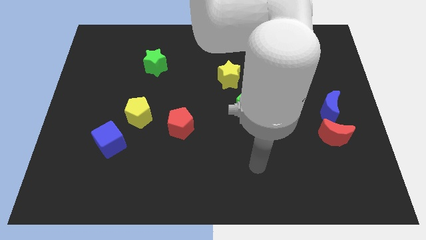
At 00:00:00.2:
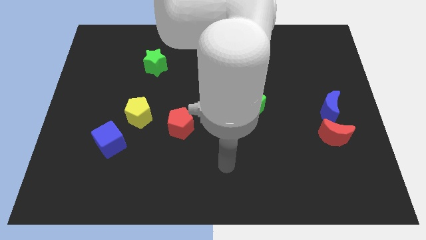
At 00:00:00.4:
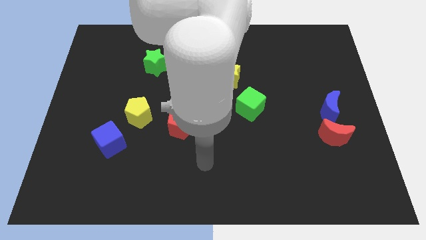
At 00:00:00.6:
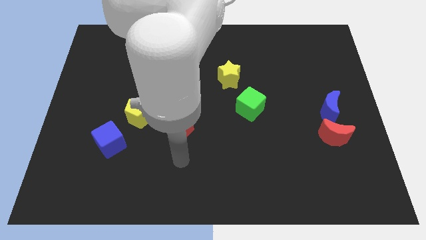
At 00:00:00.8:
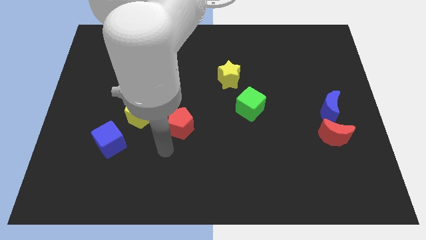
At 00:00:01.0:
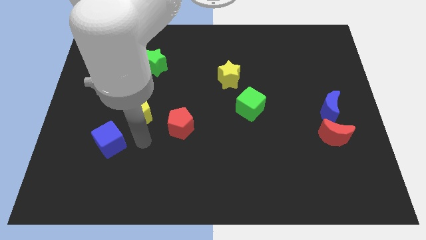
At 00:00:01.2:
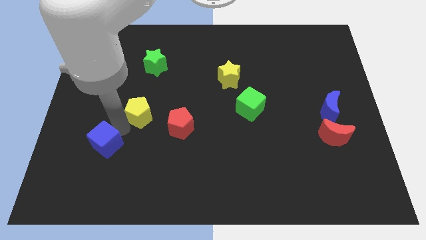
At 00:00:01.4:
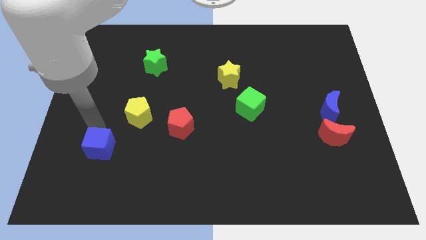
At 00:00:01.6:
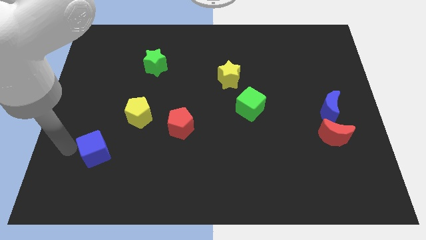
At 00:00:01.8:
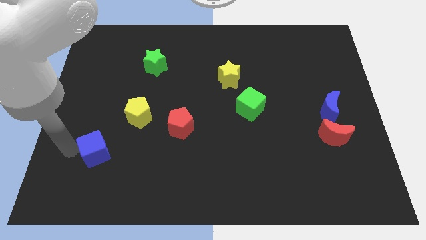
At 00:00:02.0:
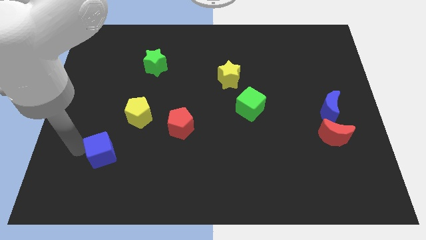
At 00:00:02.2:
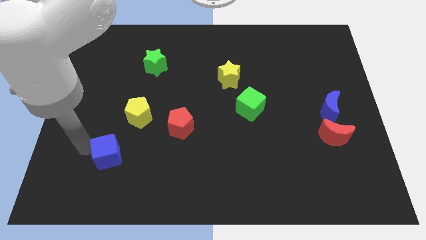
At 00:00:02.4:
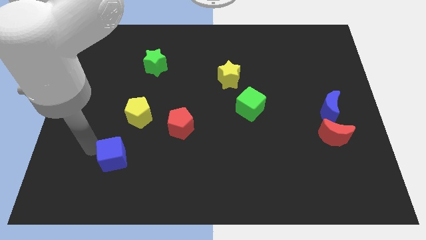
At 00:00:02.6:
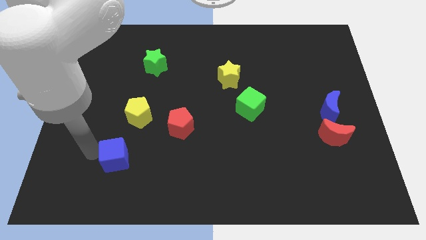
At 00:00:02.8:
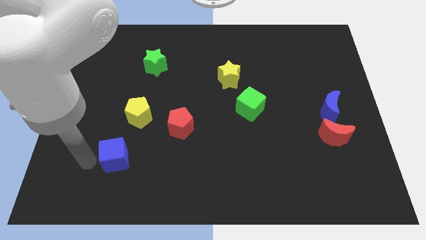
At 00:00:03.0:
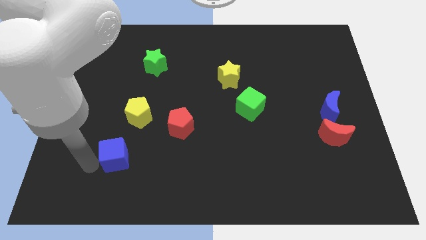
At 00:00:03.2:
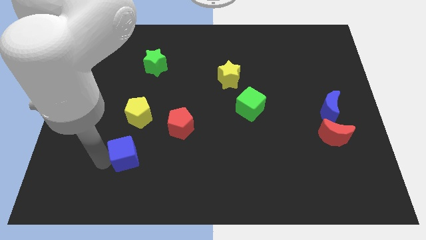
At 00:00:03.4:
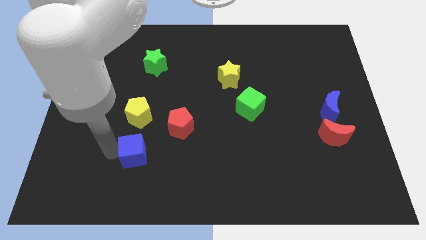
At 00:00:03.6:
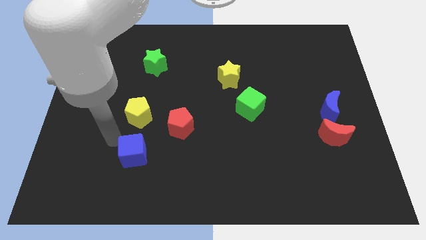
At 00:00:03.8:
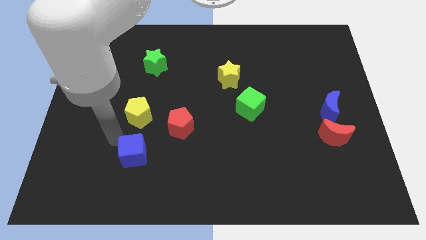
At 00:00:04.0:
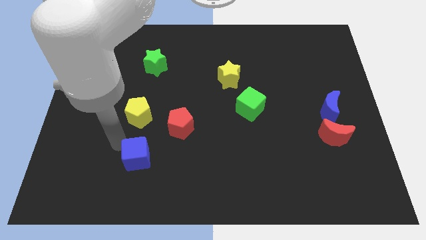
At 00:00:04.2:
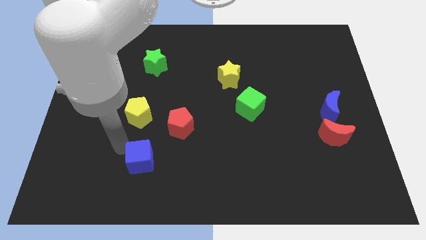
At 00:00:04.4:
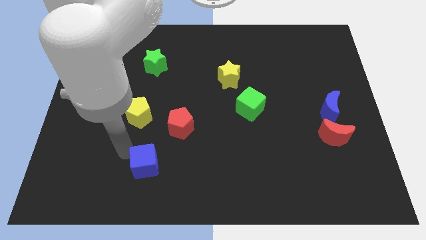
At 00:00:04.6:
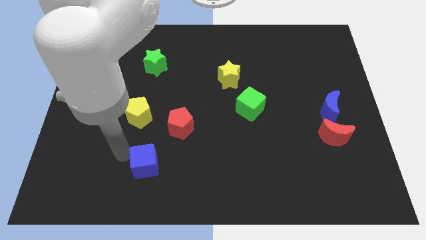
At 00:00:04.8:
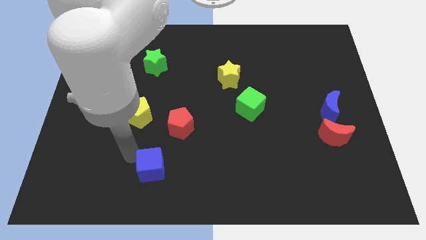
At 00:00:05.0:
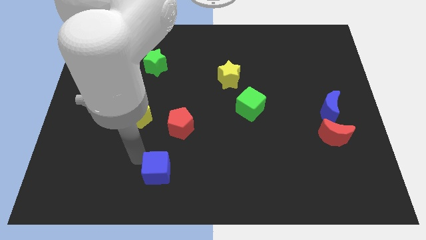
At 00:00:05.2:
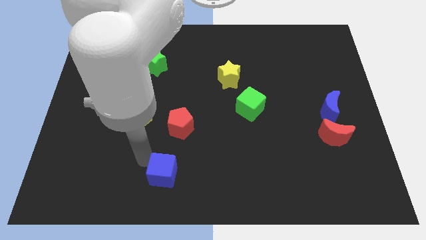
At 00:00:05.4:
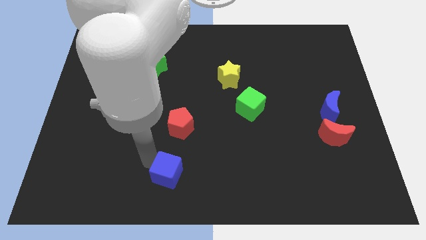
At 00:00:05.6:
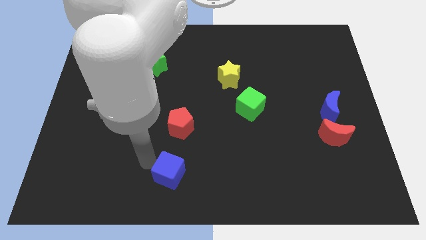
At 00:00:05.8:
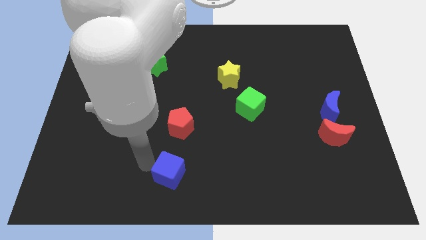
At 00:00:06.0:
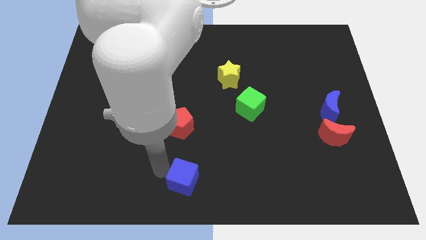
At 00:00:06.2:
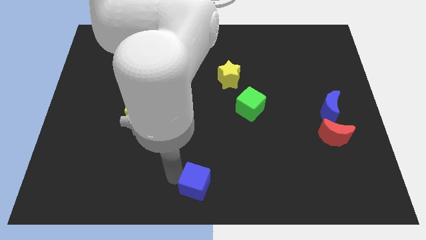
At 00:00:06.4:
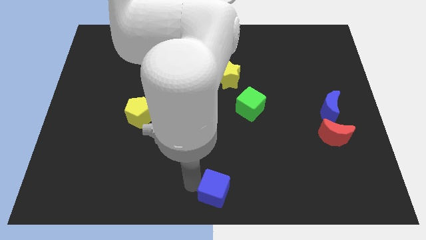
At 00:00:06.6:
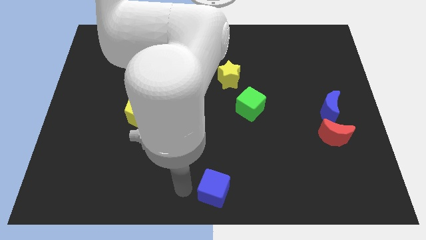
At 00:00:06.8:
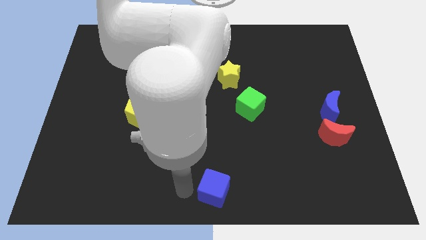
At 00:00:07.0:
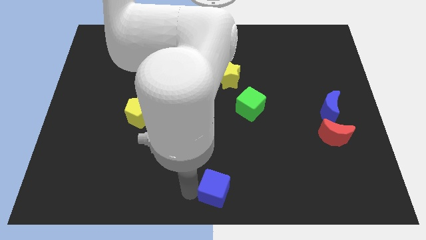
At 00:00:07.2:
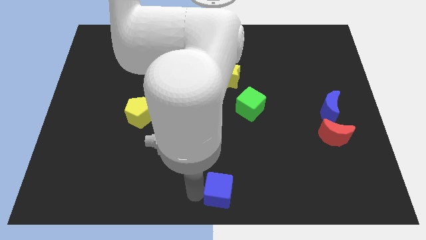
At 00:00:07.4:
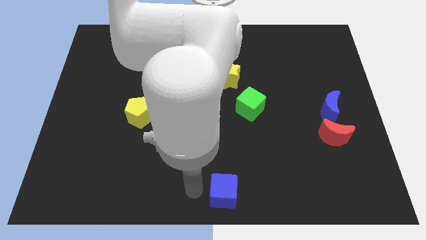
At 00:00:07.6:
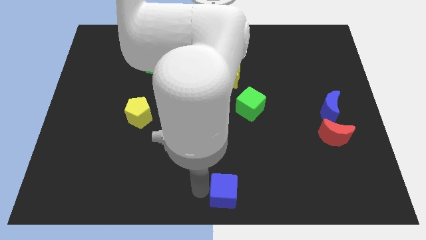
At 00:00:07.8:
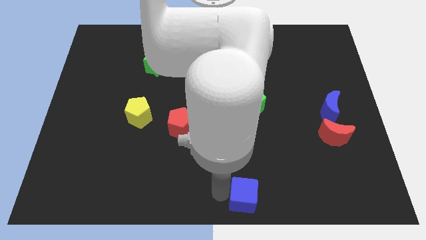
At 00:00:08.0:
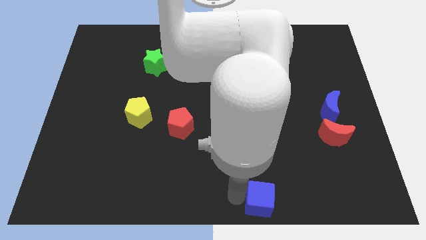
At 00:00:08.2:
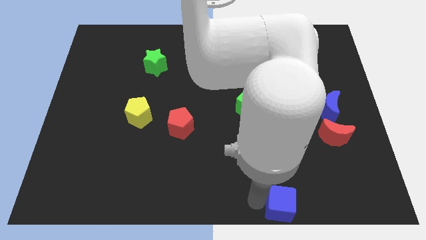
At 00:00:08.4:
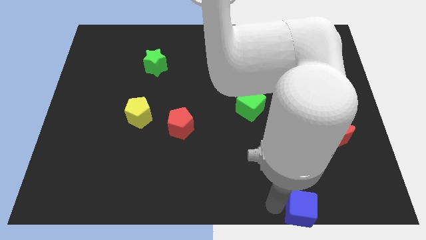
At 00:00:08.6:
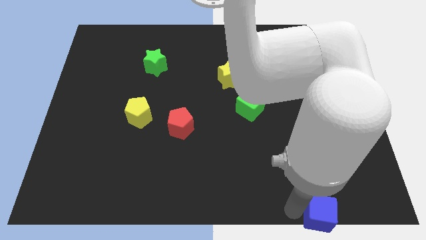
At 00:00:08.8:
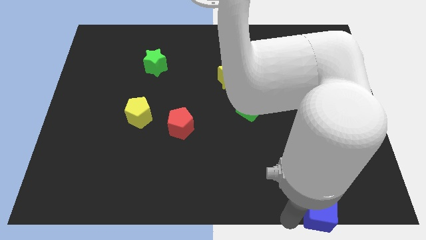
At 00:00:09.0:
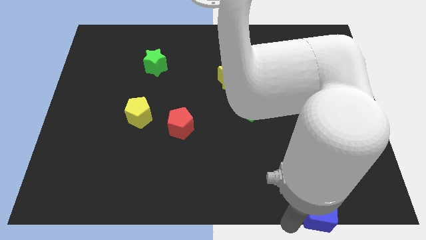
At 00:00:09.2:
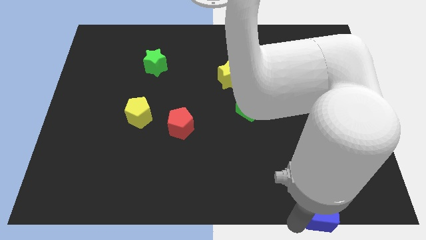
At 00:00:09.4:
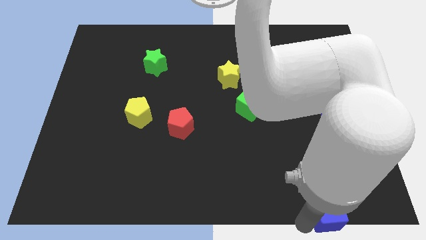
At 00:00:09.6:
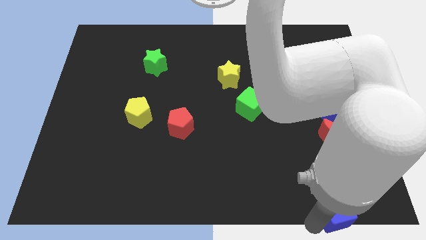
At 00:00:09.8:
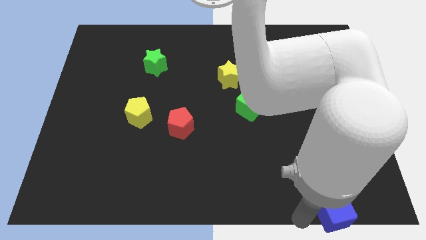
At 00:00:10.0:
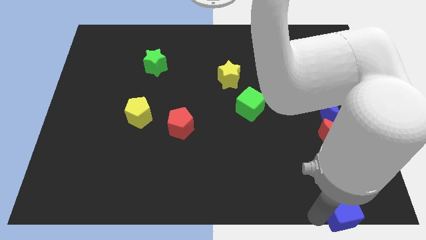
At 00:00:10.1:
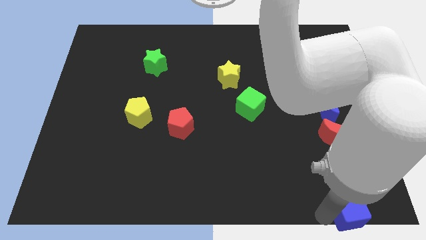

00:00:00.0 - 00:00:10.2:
move the blue cube to the bottom right

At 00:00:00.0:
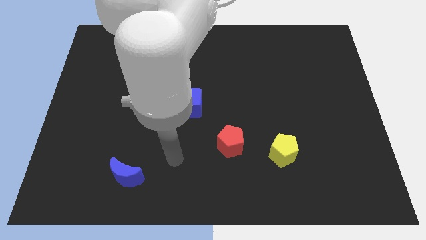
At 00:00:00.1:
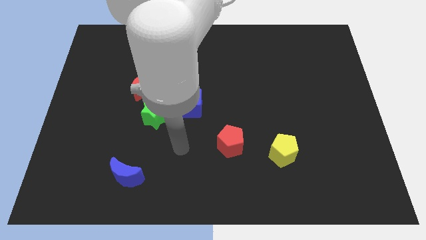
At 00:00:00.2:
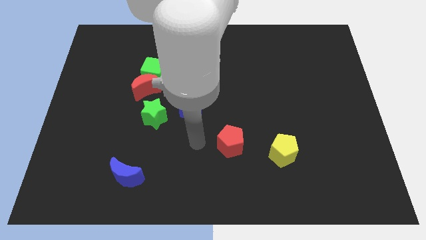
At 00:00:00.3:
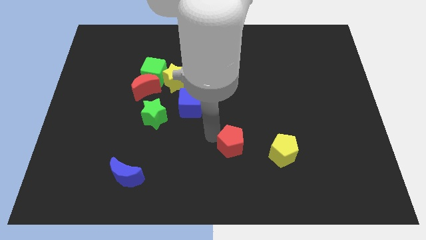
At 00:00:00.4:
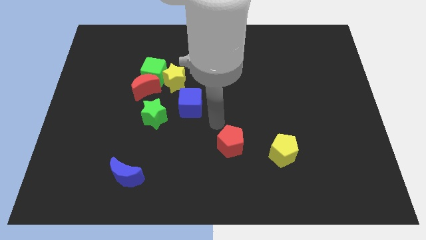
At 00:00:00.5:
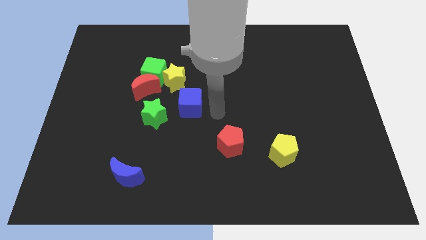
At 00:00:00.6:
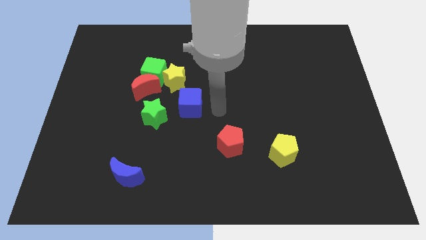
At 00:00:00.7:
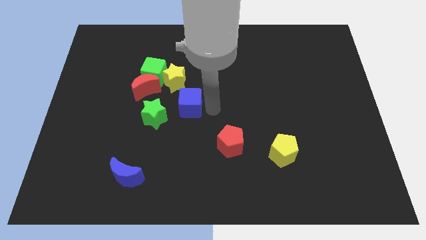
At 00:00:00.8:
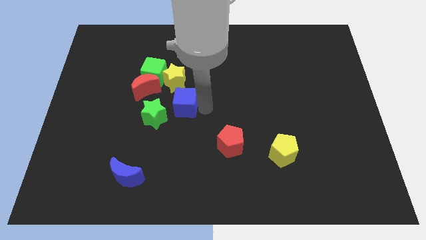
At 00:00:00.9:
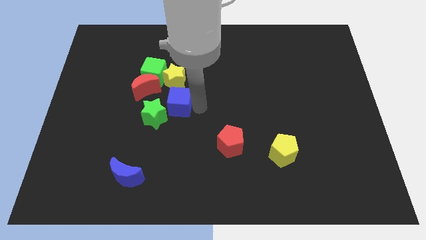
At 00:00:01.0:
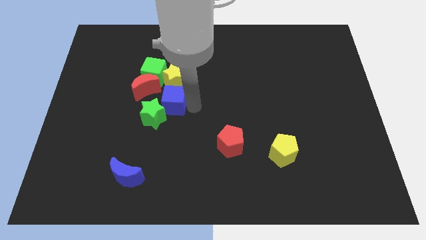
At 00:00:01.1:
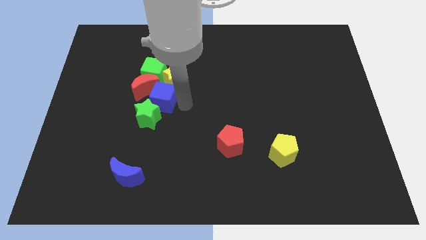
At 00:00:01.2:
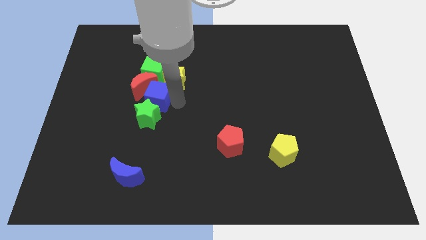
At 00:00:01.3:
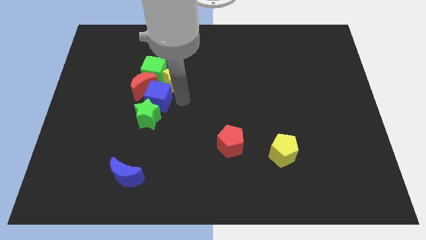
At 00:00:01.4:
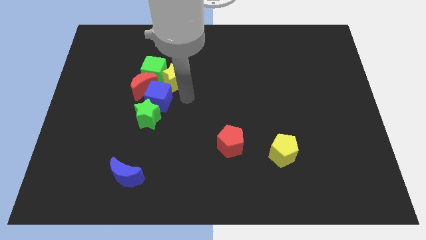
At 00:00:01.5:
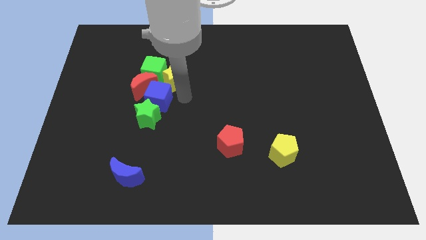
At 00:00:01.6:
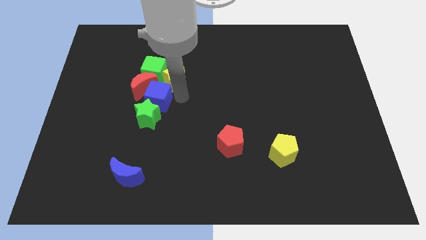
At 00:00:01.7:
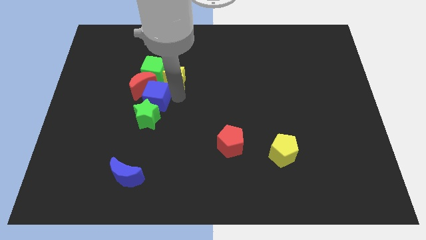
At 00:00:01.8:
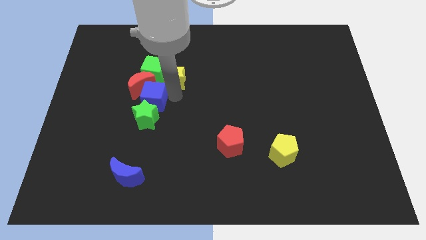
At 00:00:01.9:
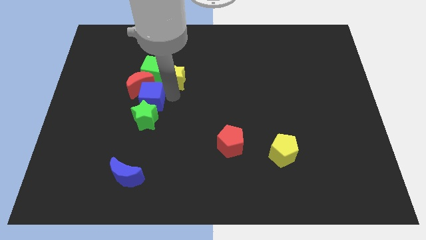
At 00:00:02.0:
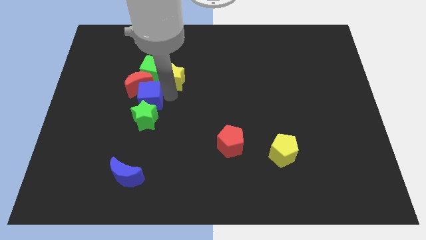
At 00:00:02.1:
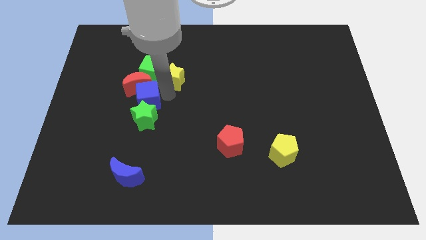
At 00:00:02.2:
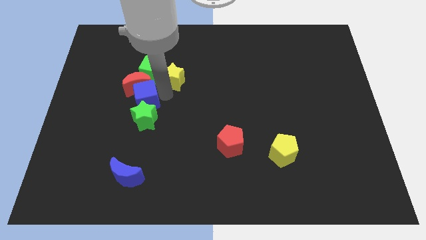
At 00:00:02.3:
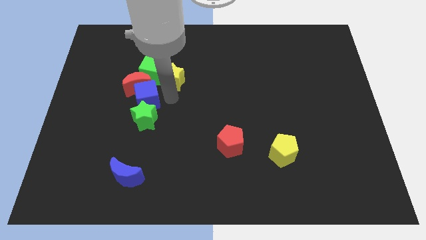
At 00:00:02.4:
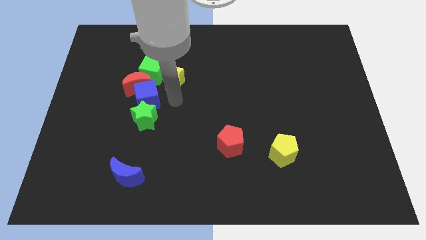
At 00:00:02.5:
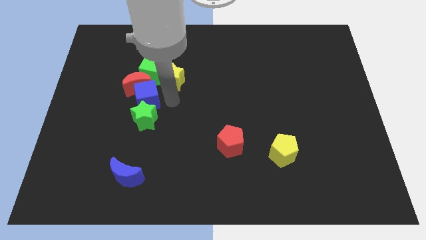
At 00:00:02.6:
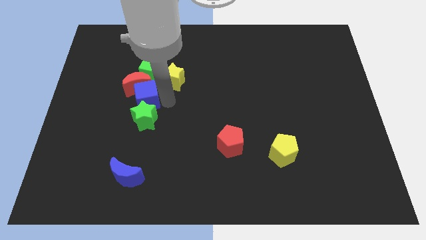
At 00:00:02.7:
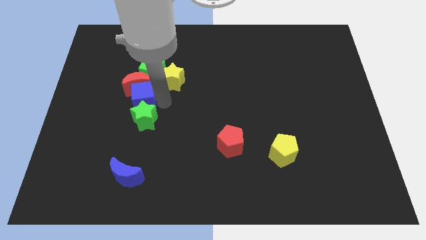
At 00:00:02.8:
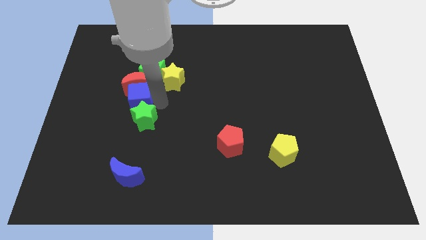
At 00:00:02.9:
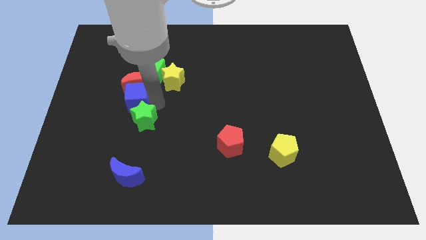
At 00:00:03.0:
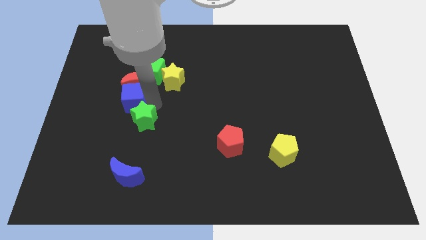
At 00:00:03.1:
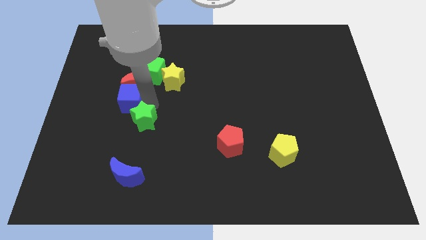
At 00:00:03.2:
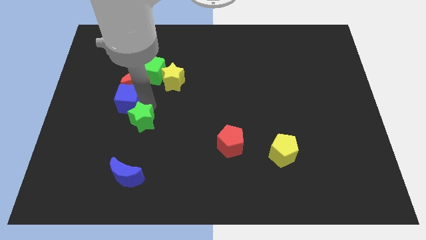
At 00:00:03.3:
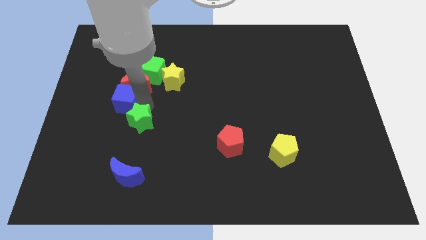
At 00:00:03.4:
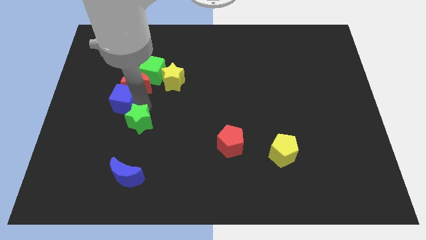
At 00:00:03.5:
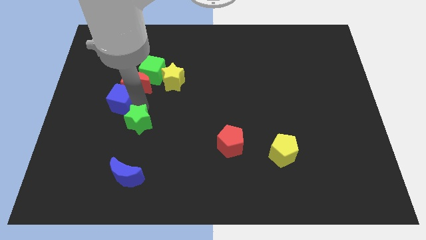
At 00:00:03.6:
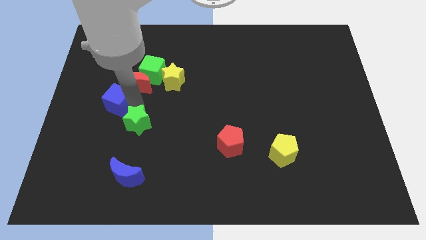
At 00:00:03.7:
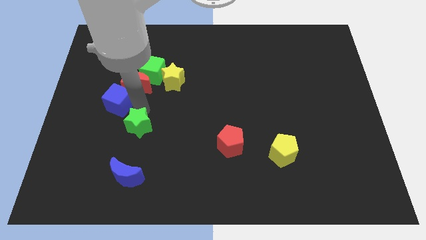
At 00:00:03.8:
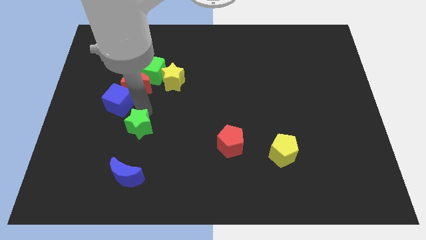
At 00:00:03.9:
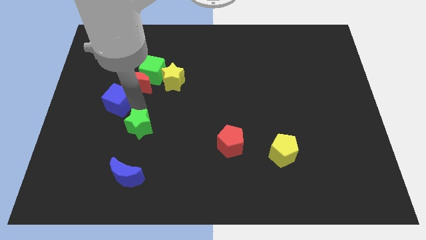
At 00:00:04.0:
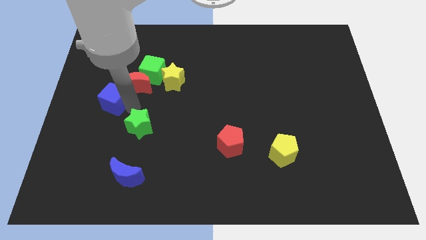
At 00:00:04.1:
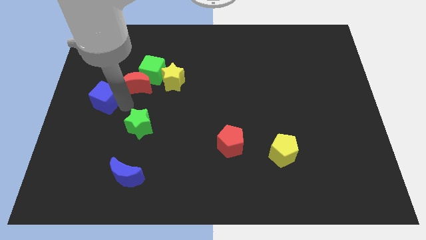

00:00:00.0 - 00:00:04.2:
push the blue cube to the left side of the board
